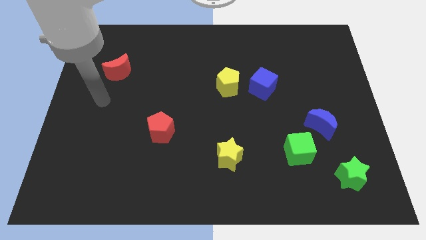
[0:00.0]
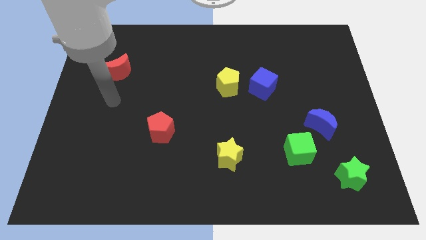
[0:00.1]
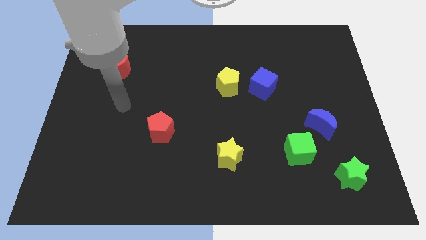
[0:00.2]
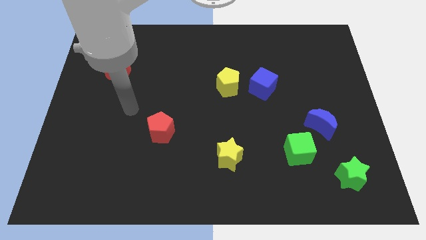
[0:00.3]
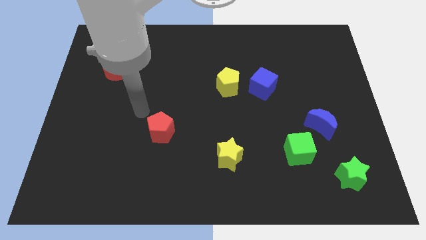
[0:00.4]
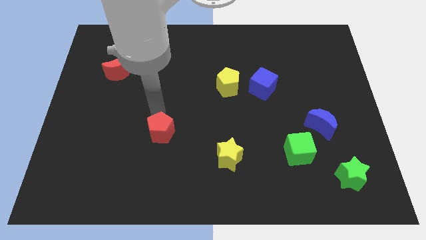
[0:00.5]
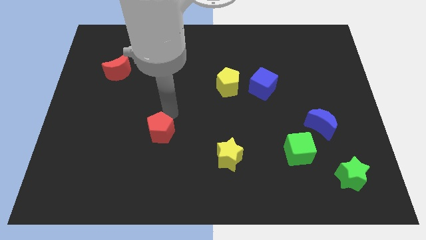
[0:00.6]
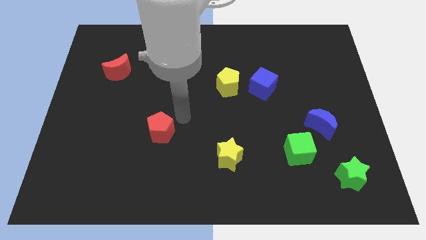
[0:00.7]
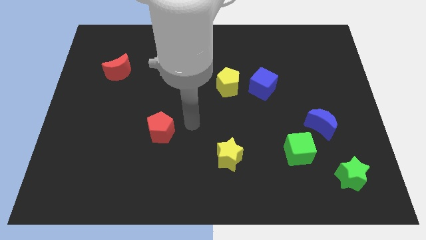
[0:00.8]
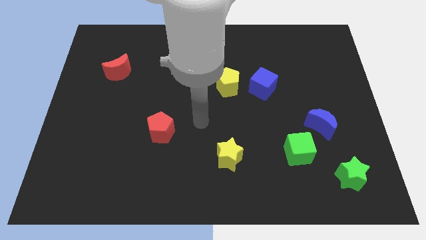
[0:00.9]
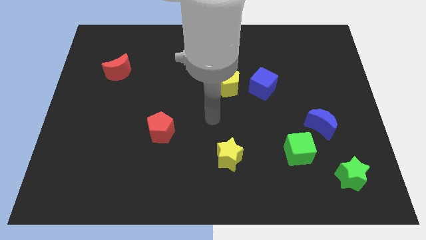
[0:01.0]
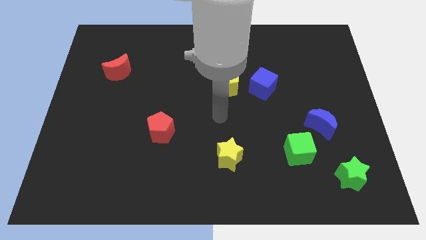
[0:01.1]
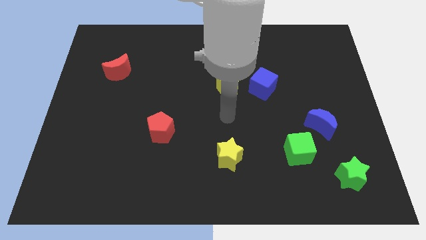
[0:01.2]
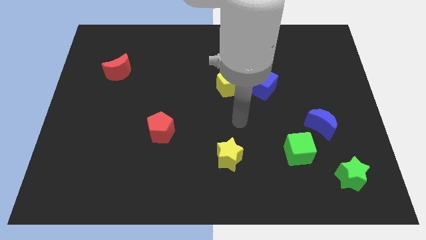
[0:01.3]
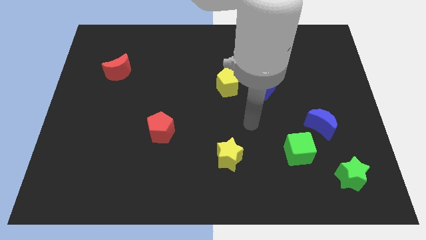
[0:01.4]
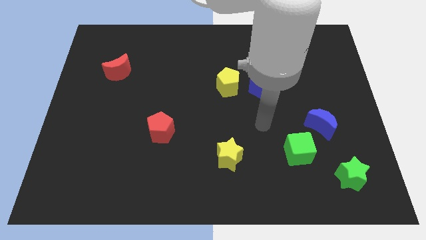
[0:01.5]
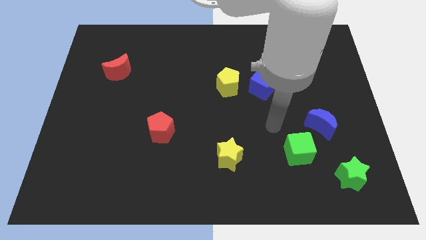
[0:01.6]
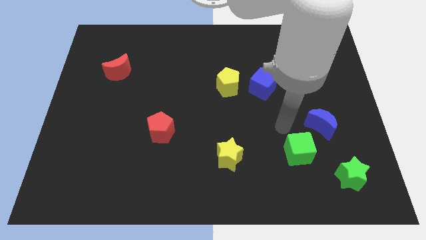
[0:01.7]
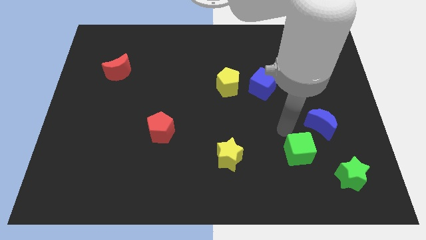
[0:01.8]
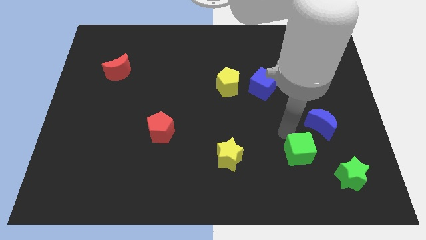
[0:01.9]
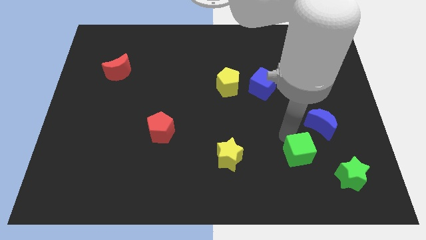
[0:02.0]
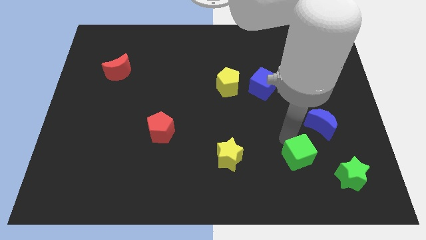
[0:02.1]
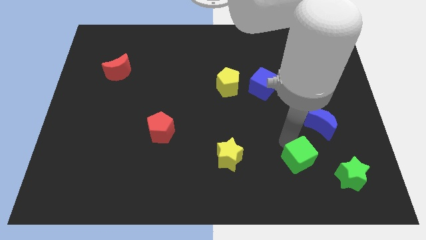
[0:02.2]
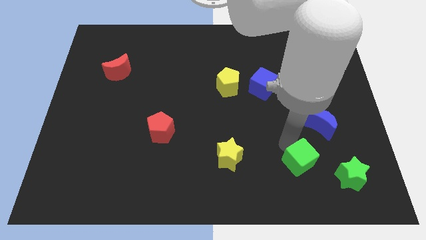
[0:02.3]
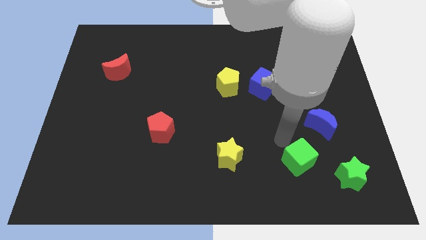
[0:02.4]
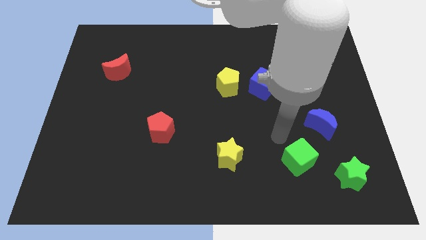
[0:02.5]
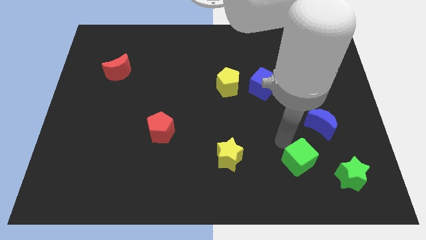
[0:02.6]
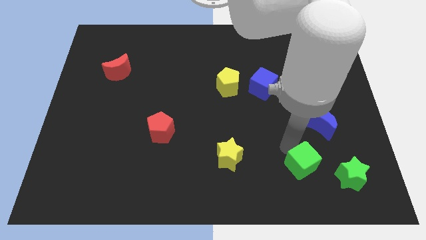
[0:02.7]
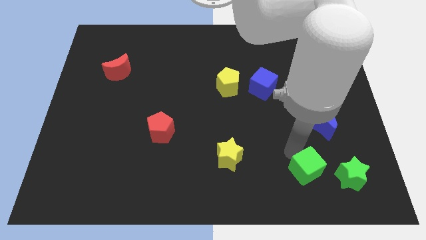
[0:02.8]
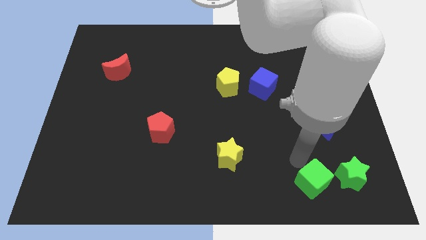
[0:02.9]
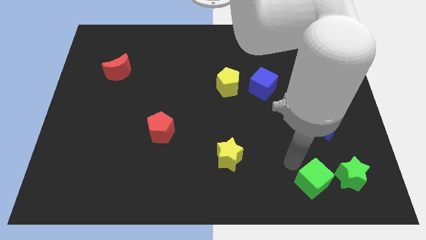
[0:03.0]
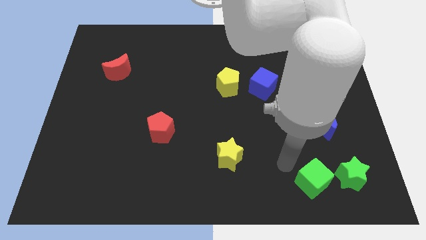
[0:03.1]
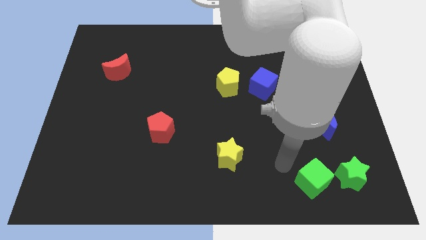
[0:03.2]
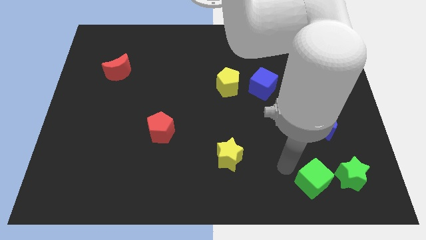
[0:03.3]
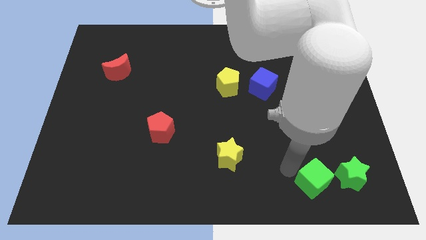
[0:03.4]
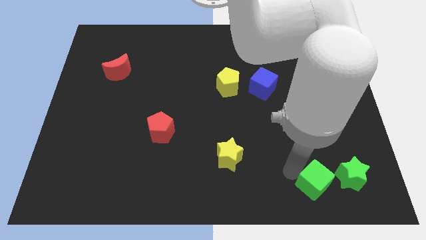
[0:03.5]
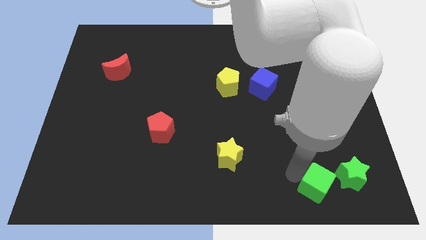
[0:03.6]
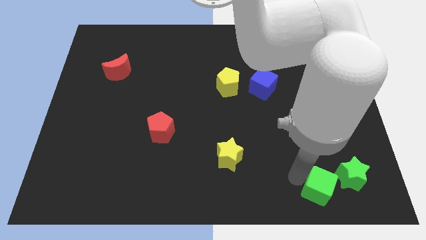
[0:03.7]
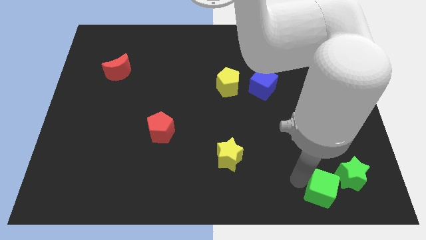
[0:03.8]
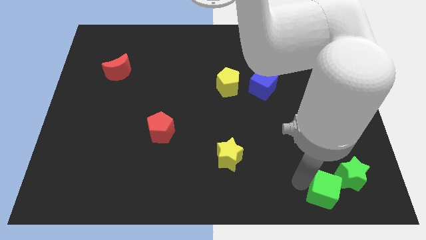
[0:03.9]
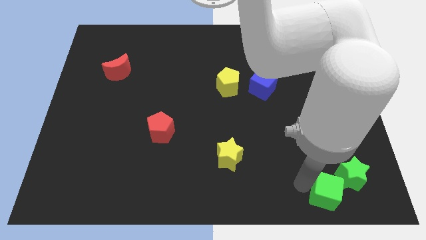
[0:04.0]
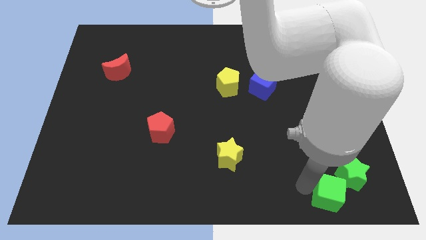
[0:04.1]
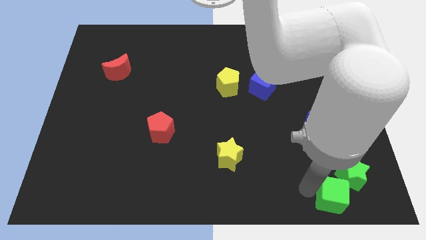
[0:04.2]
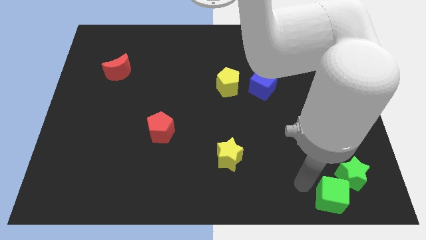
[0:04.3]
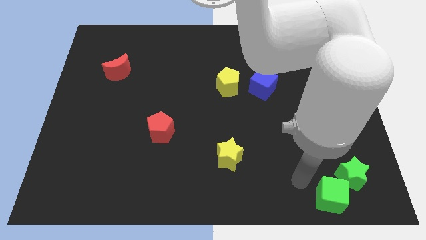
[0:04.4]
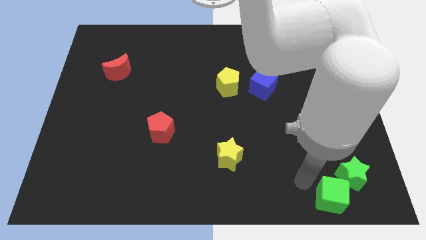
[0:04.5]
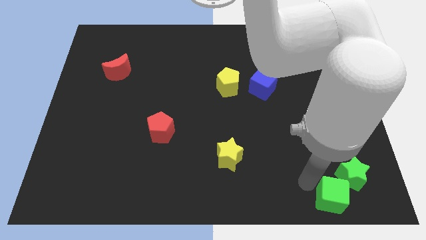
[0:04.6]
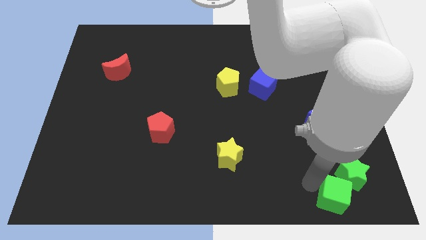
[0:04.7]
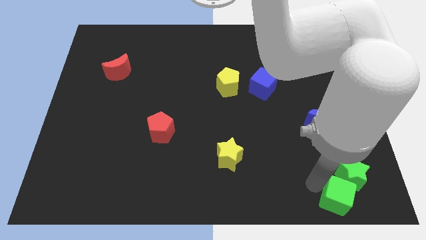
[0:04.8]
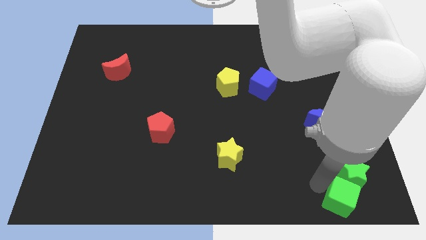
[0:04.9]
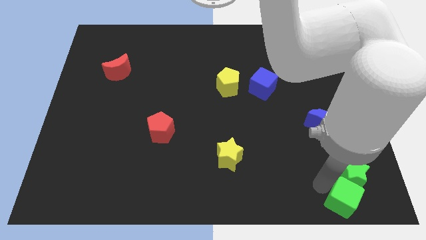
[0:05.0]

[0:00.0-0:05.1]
put the green cube to the lower right corner
